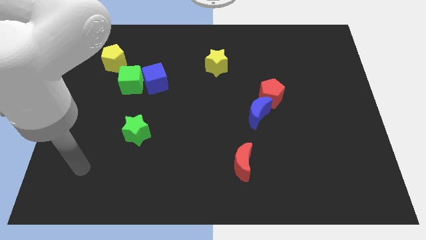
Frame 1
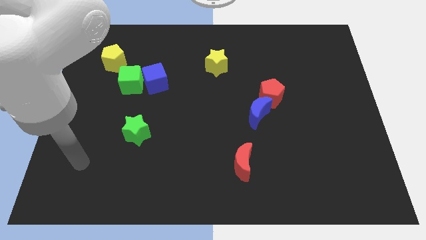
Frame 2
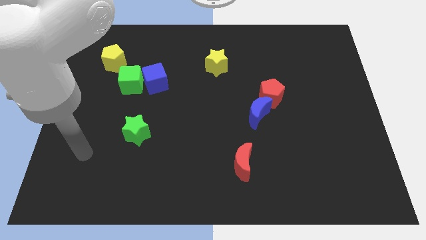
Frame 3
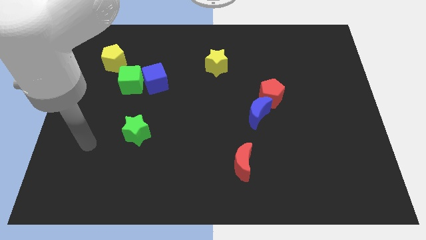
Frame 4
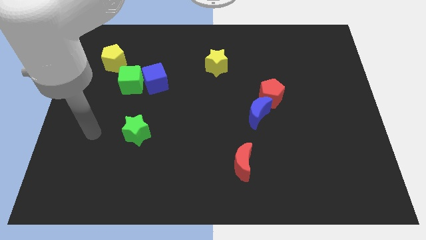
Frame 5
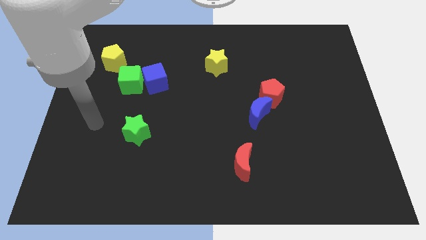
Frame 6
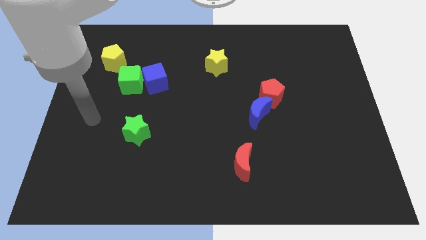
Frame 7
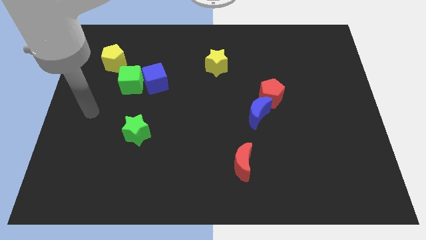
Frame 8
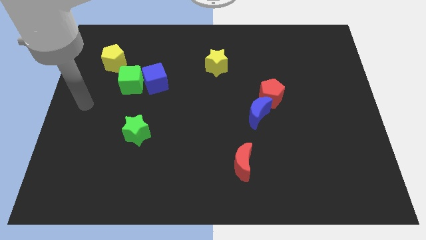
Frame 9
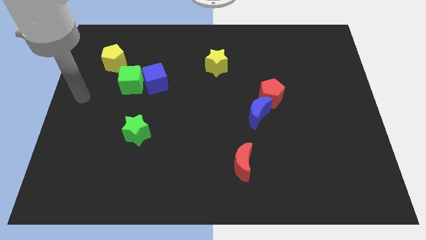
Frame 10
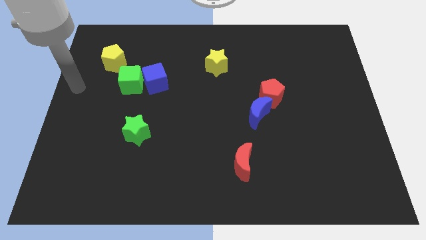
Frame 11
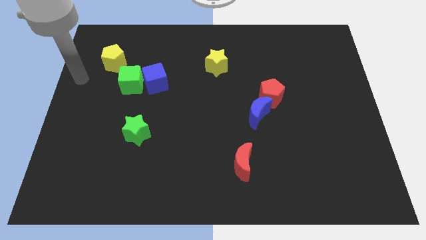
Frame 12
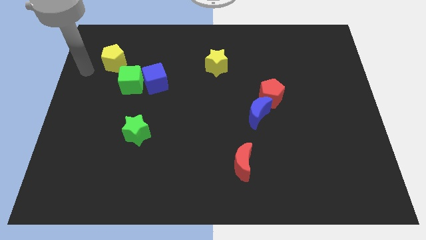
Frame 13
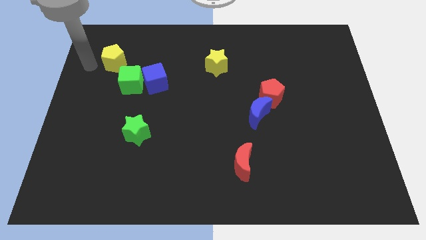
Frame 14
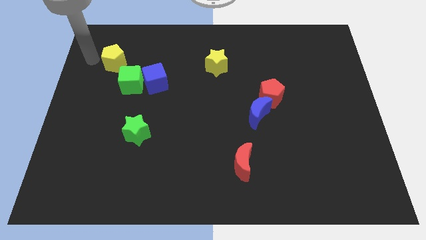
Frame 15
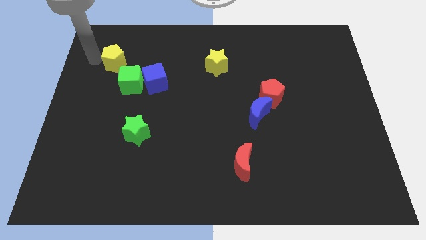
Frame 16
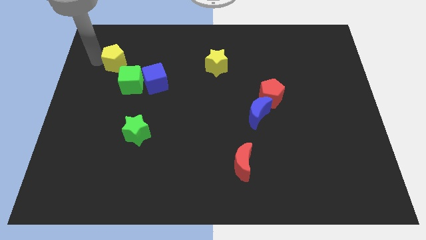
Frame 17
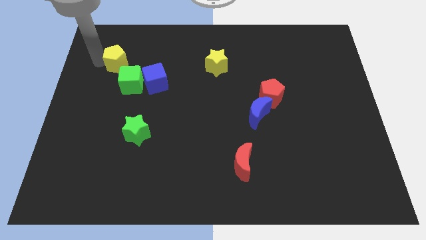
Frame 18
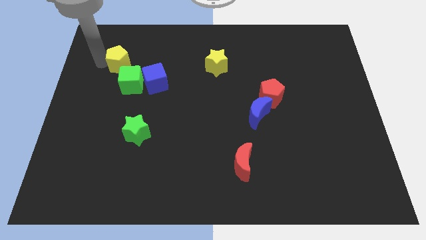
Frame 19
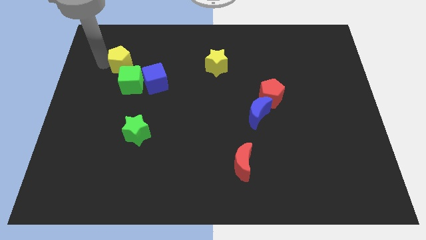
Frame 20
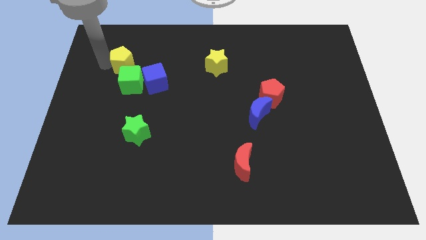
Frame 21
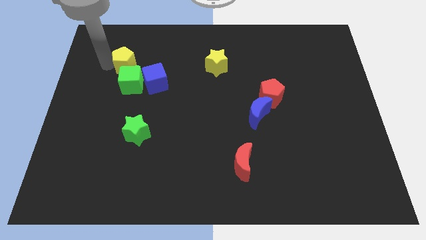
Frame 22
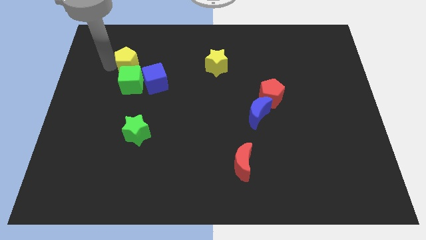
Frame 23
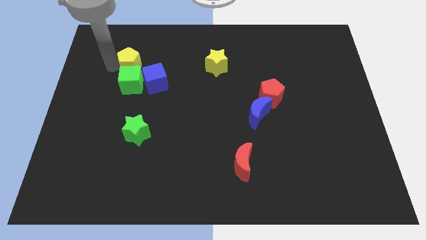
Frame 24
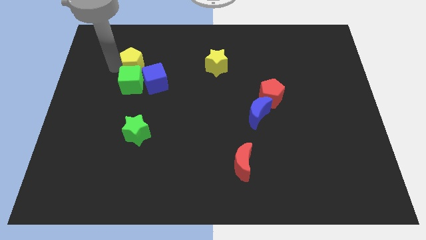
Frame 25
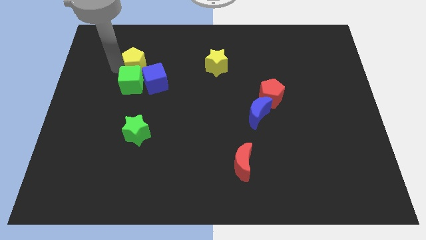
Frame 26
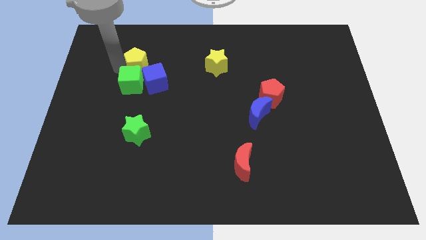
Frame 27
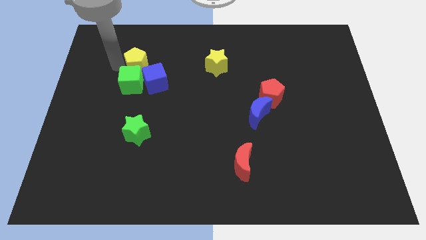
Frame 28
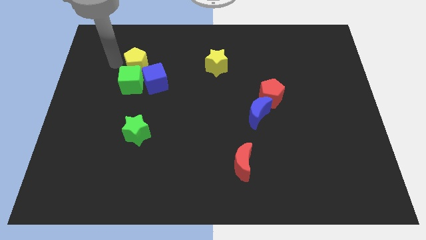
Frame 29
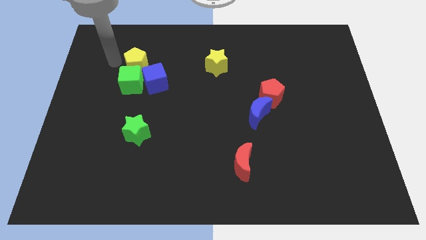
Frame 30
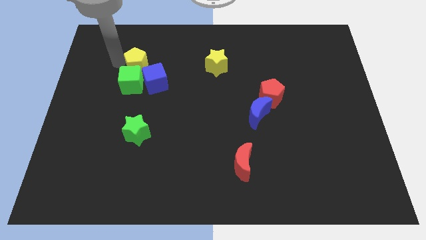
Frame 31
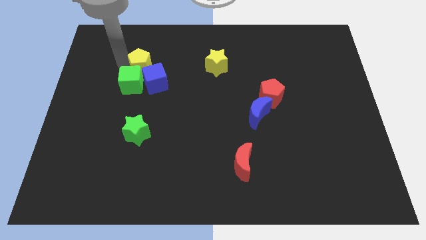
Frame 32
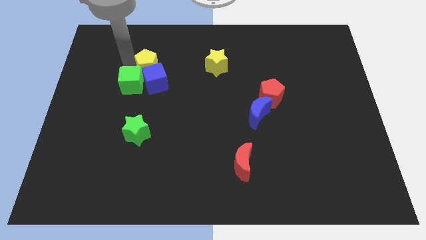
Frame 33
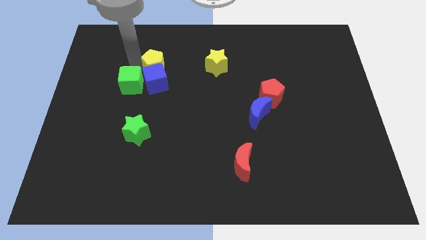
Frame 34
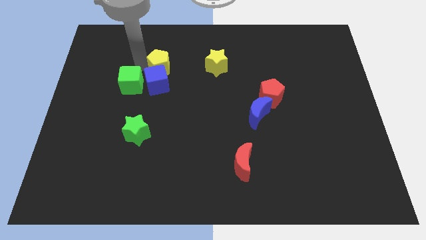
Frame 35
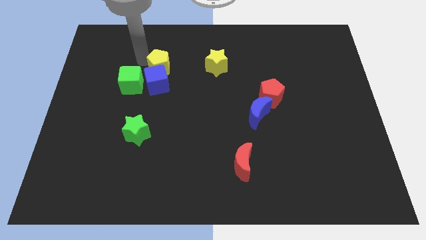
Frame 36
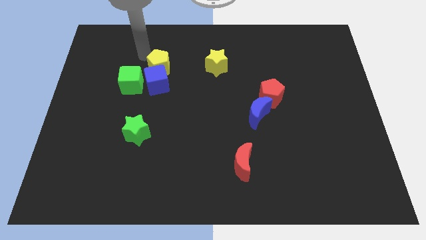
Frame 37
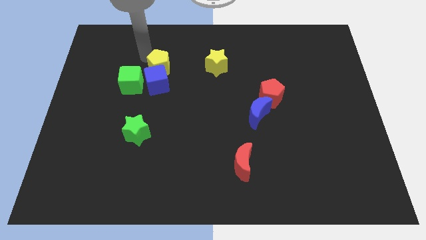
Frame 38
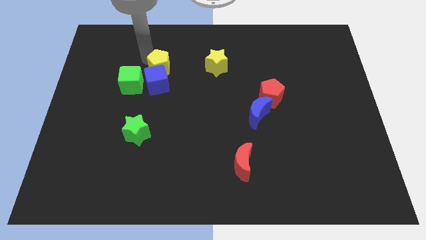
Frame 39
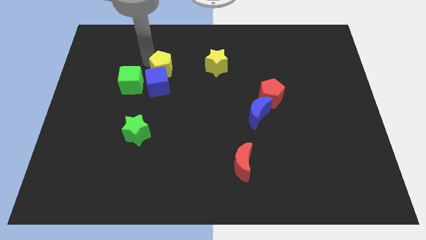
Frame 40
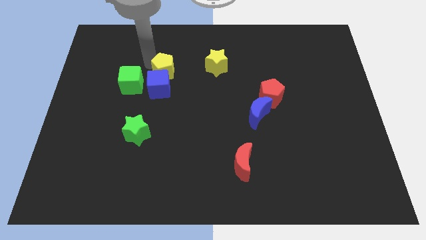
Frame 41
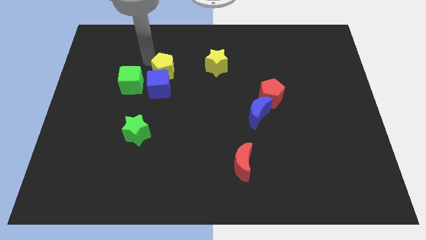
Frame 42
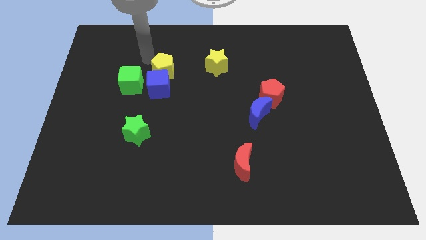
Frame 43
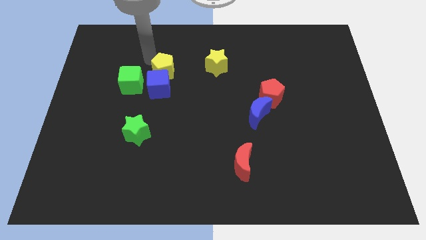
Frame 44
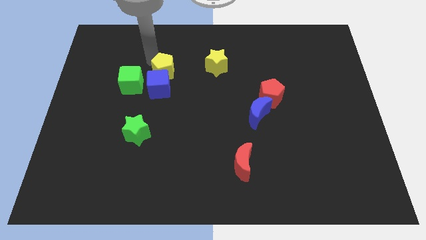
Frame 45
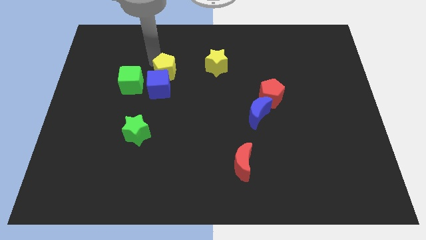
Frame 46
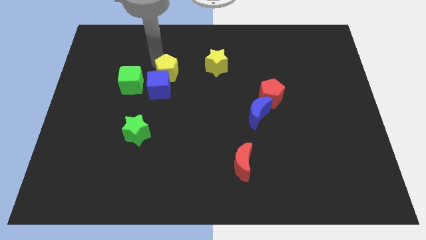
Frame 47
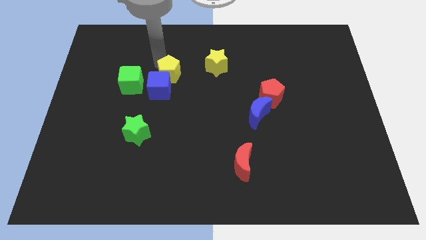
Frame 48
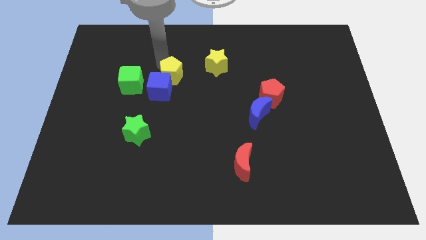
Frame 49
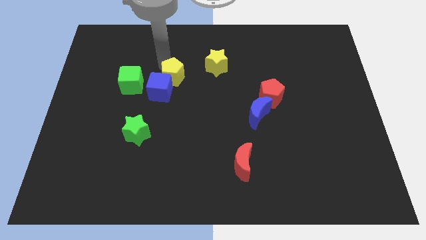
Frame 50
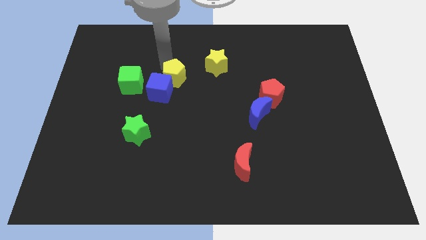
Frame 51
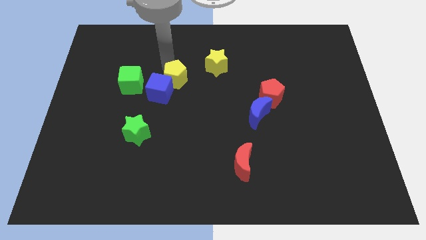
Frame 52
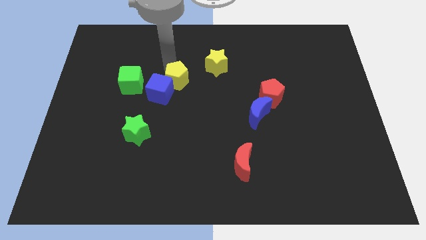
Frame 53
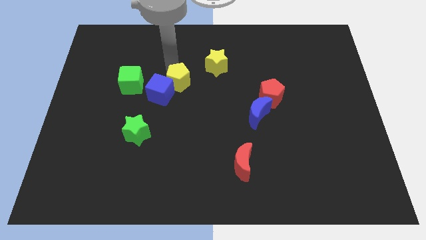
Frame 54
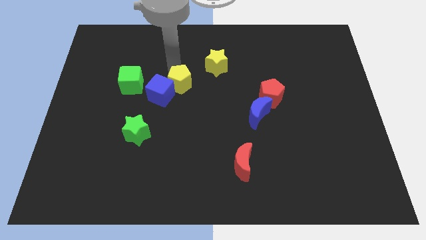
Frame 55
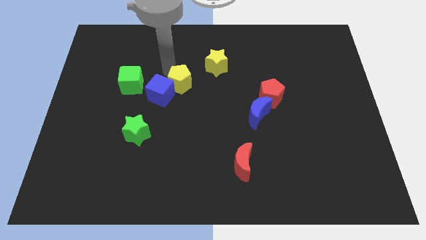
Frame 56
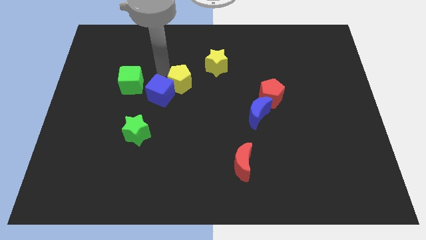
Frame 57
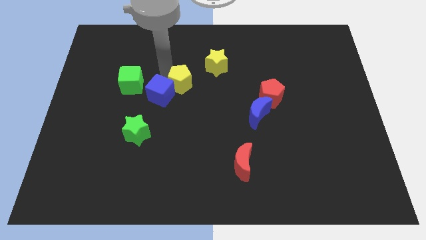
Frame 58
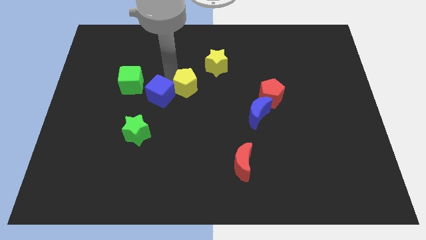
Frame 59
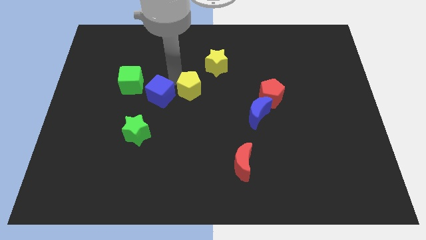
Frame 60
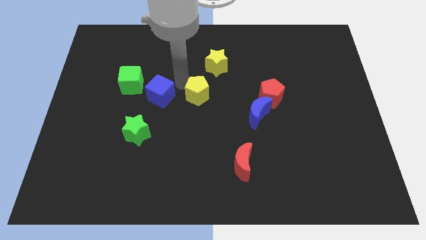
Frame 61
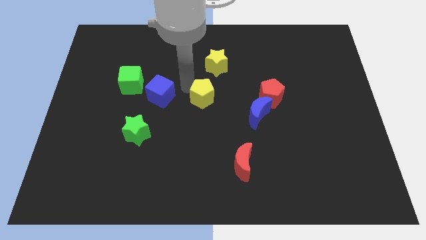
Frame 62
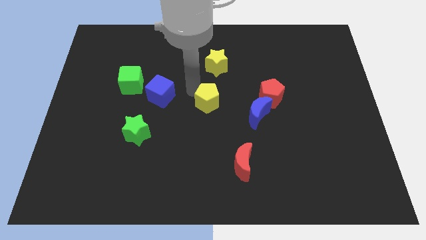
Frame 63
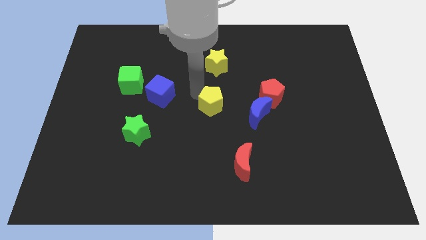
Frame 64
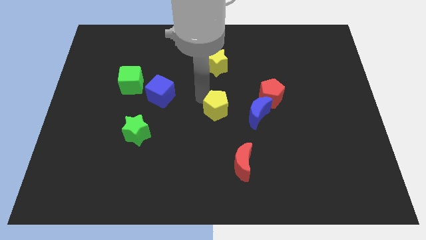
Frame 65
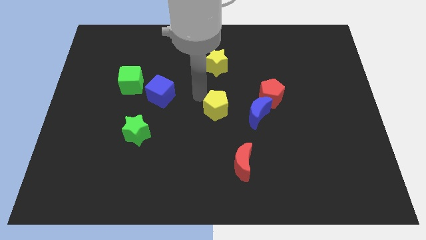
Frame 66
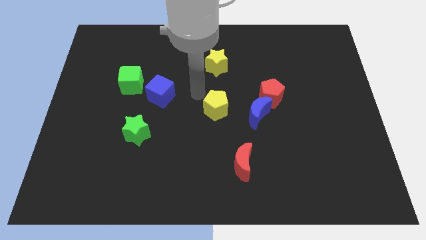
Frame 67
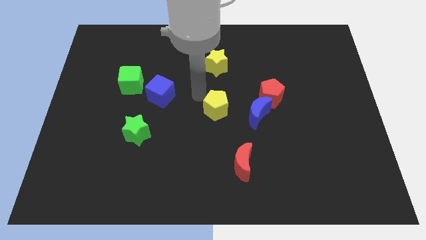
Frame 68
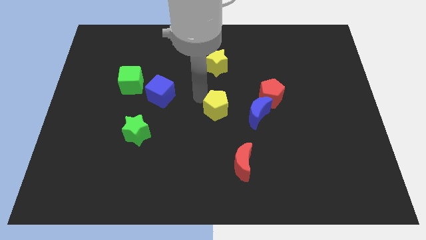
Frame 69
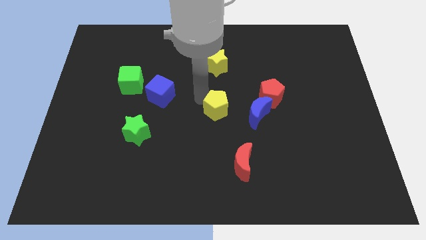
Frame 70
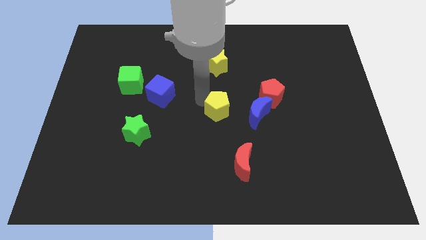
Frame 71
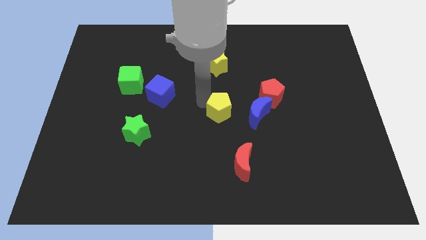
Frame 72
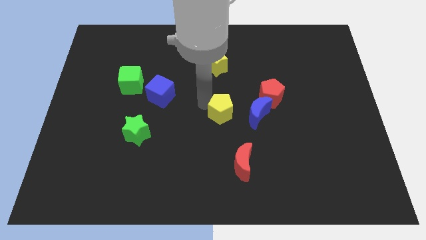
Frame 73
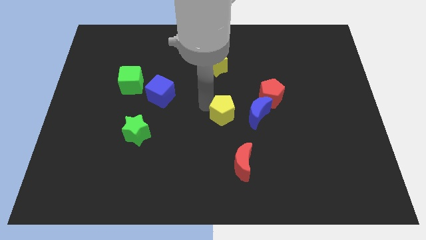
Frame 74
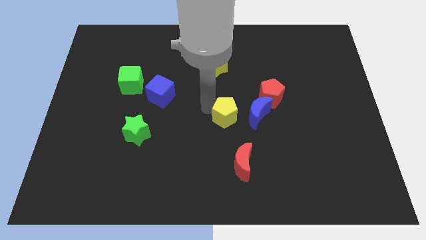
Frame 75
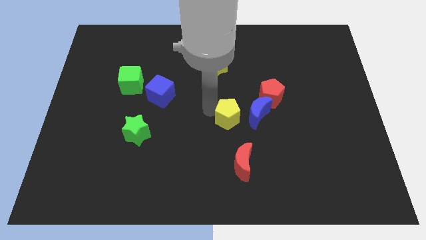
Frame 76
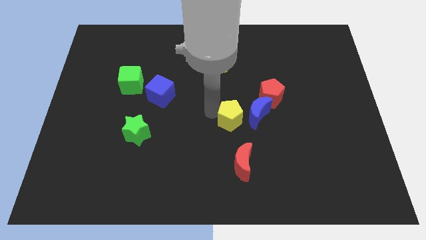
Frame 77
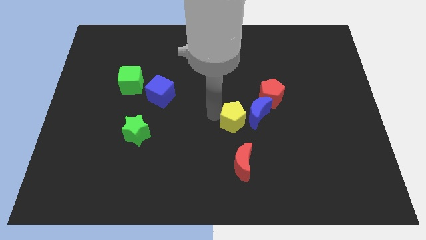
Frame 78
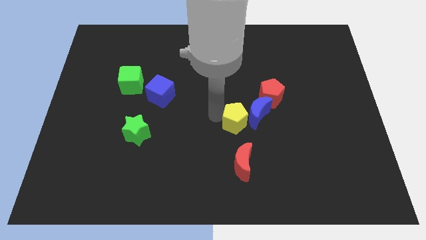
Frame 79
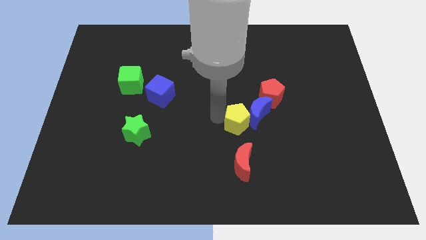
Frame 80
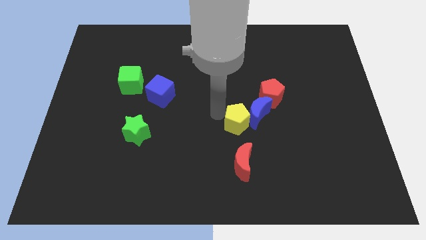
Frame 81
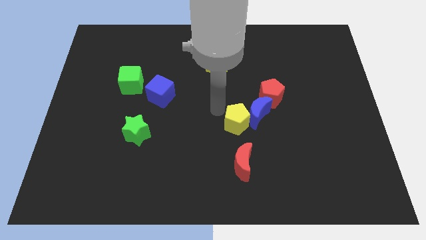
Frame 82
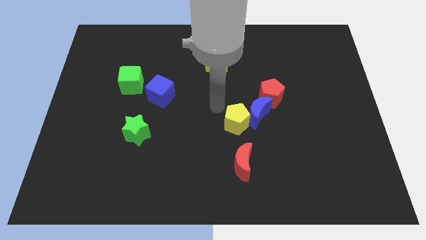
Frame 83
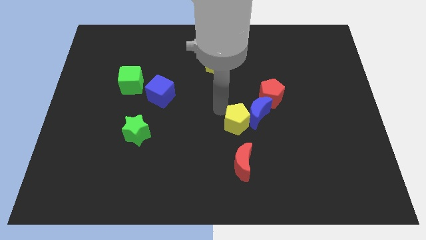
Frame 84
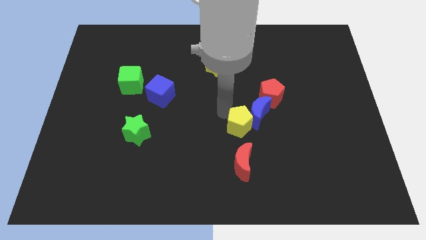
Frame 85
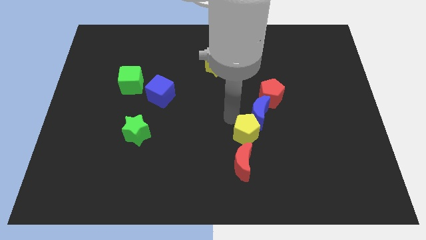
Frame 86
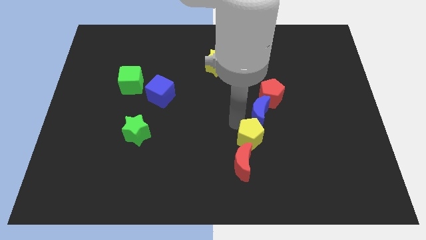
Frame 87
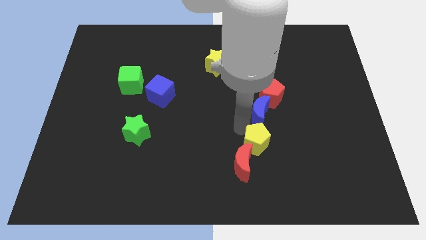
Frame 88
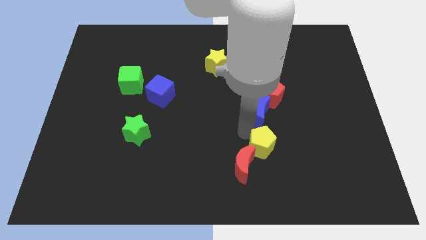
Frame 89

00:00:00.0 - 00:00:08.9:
push the yellow pentagon to the right of the red moon
